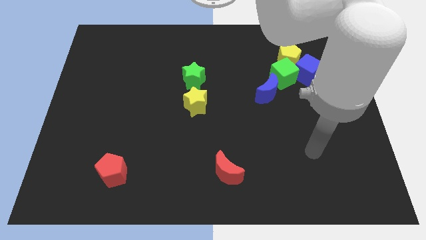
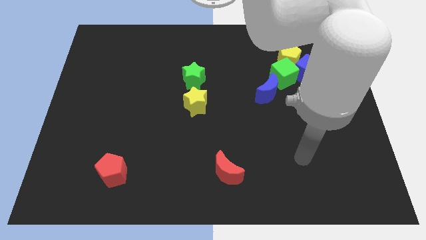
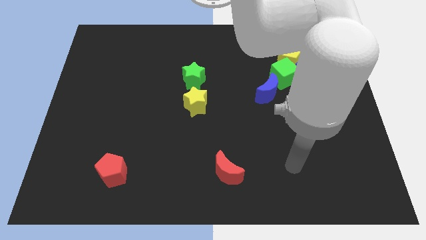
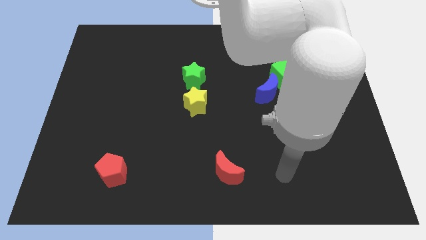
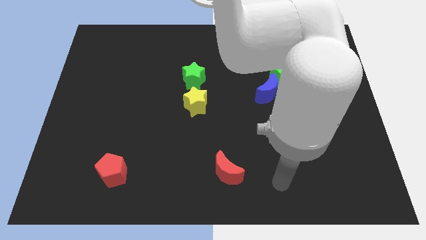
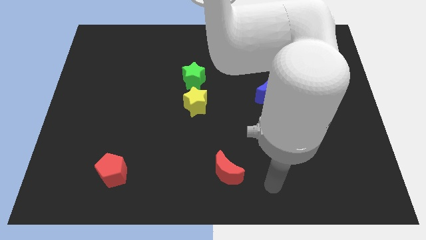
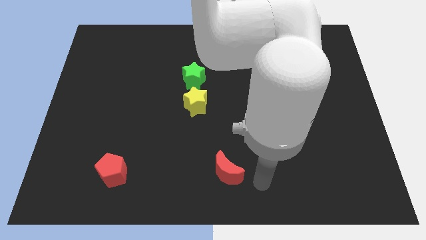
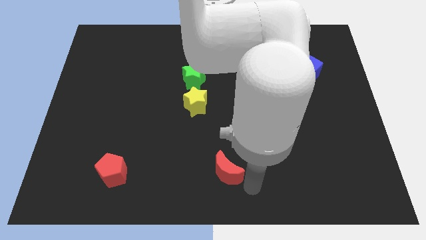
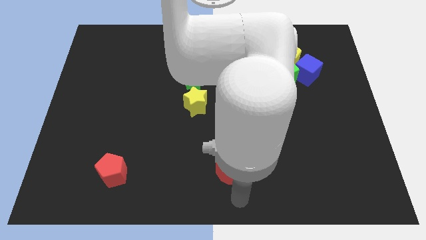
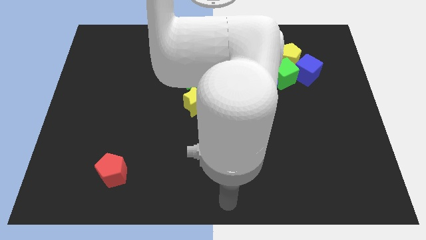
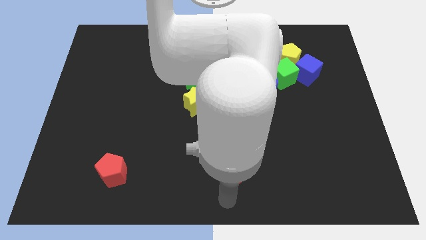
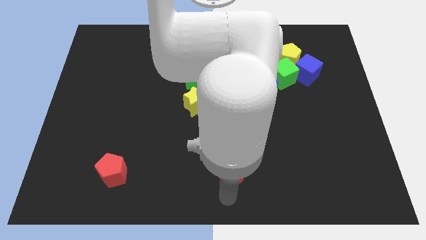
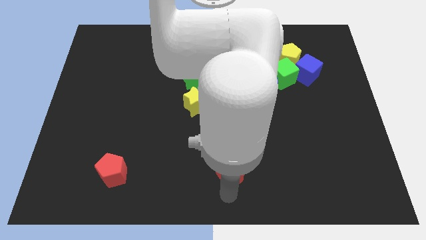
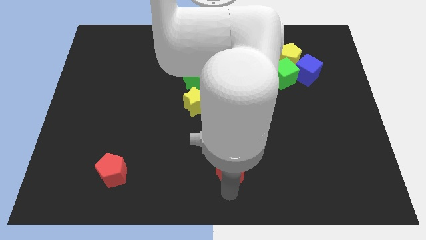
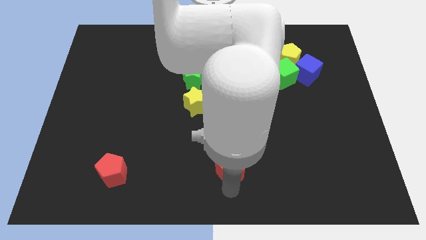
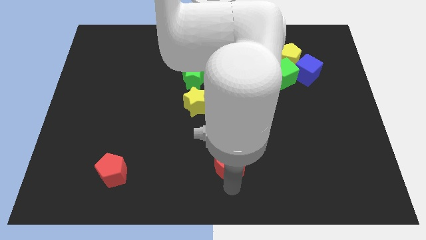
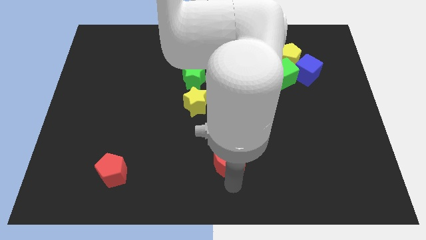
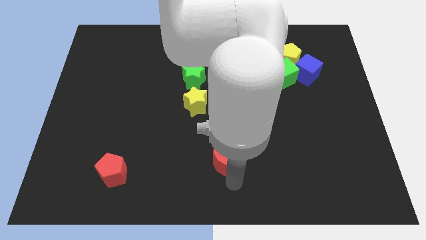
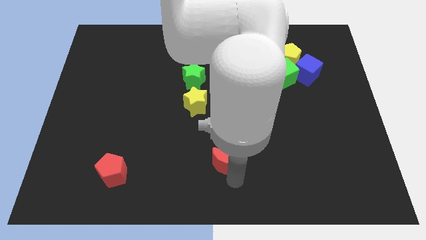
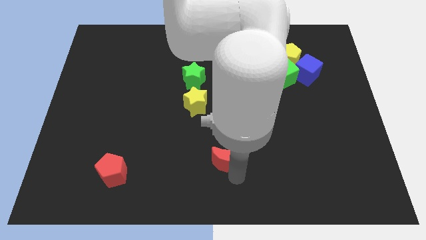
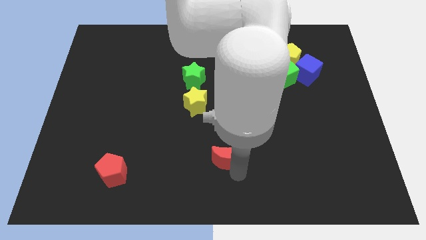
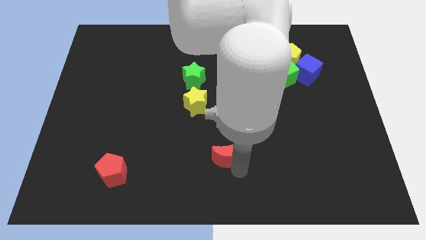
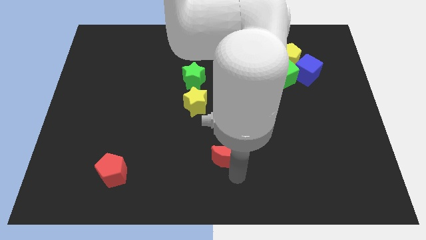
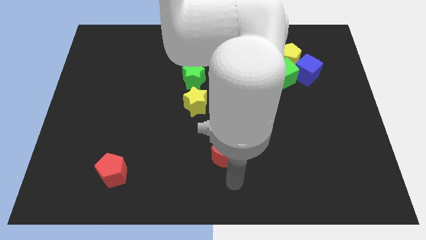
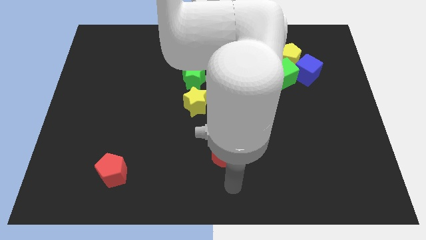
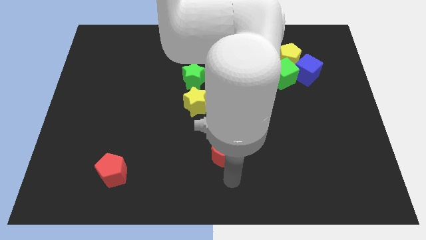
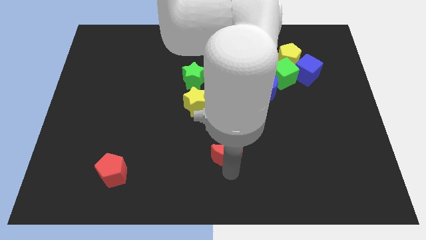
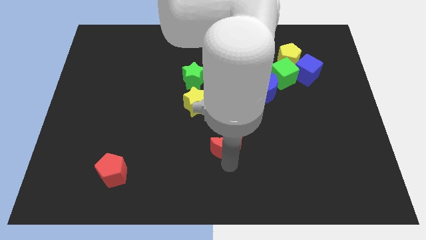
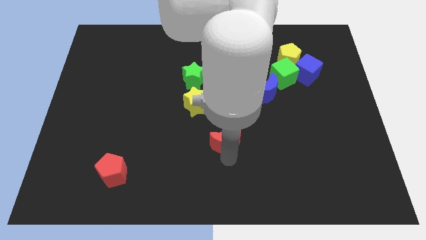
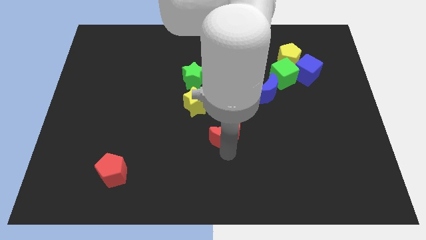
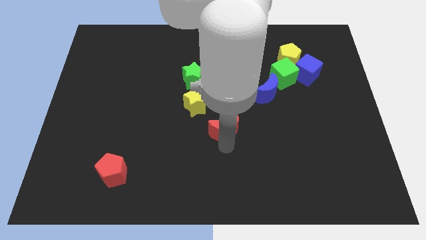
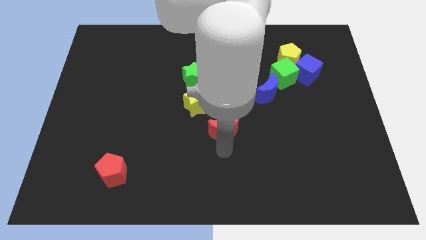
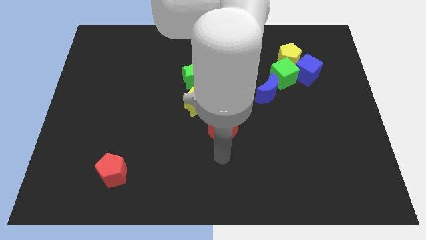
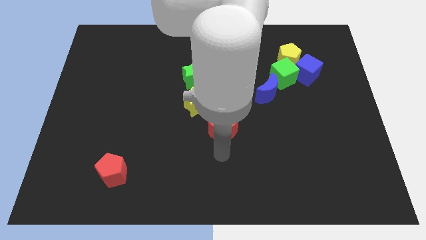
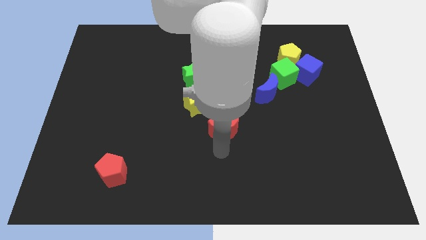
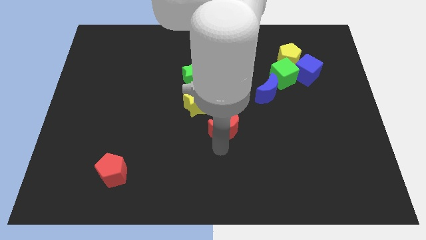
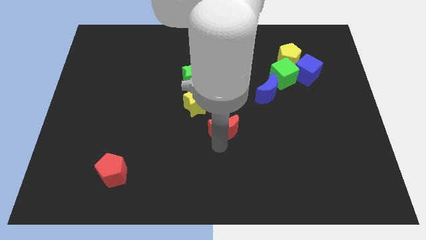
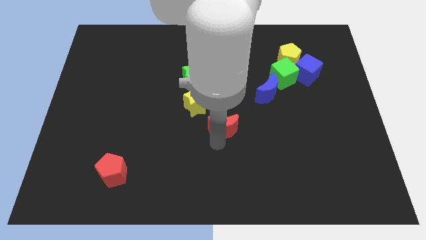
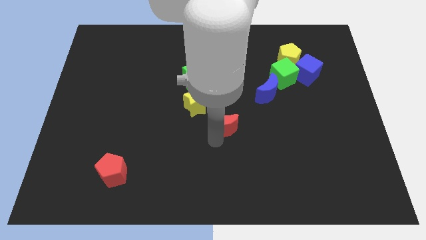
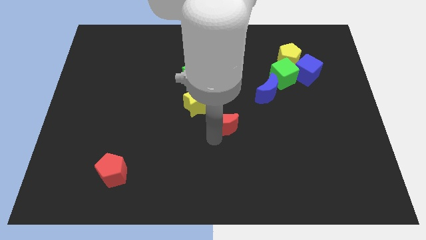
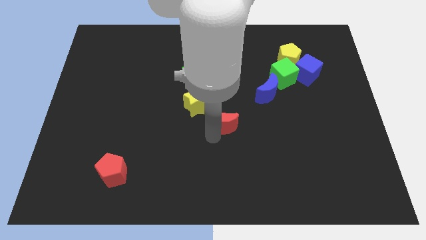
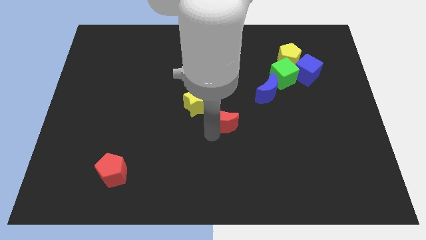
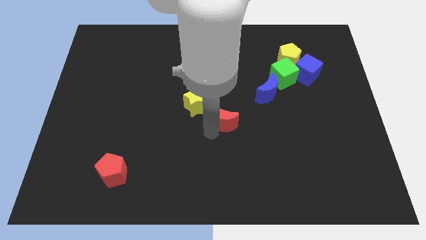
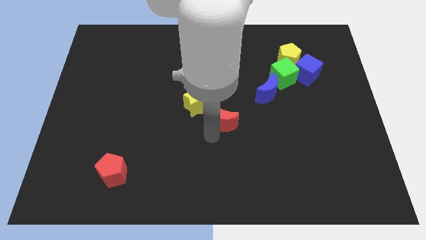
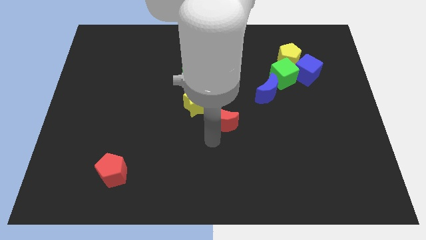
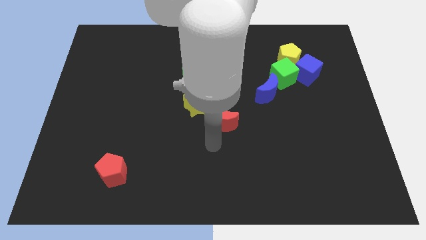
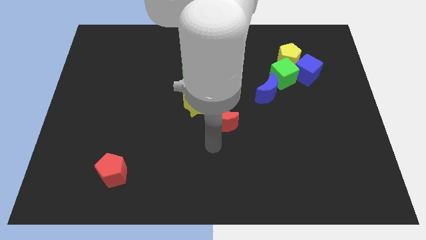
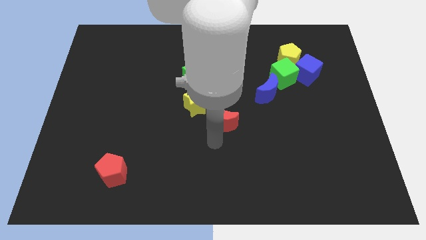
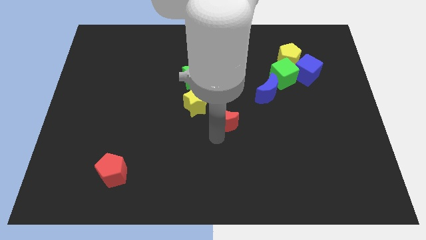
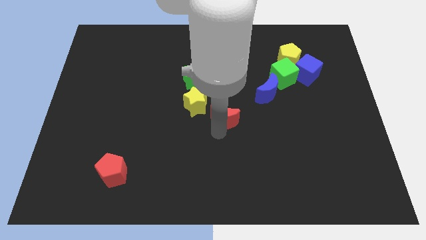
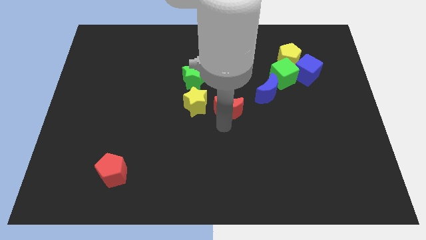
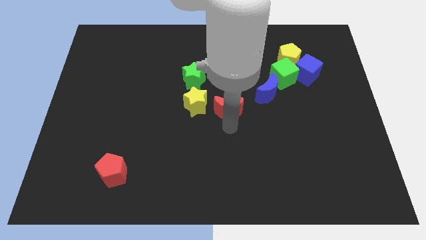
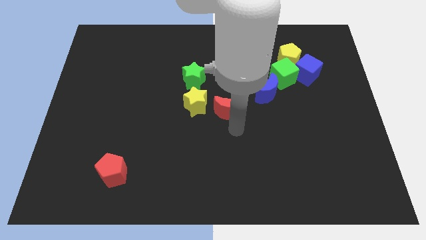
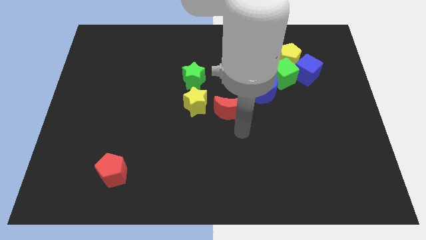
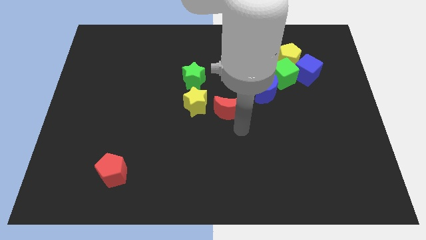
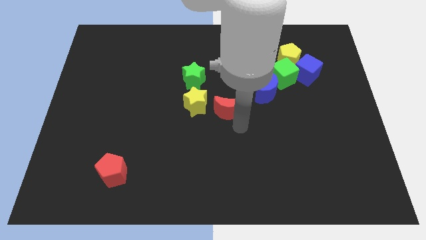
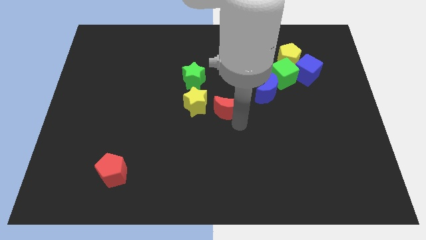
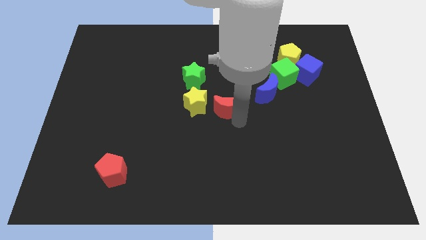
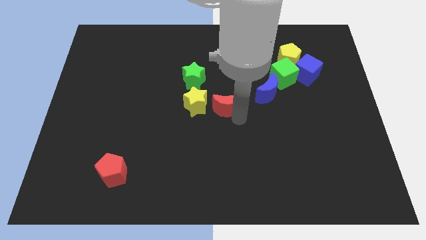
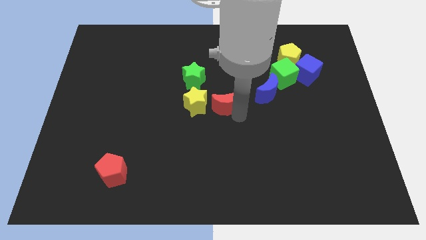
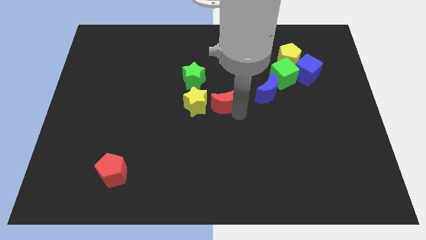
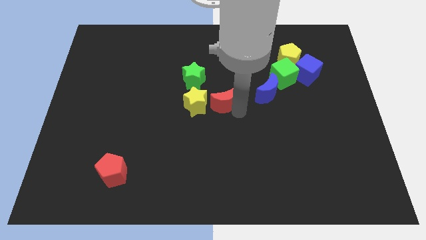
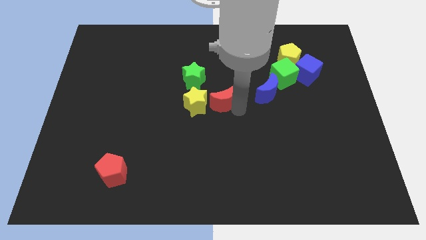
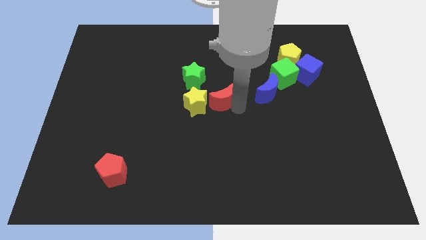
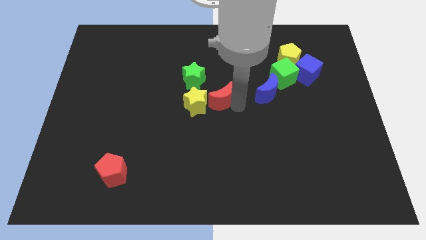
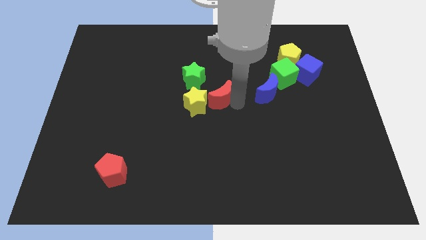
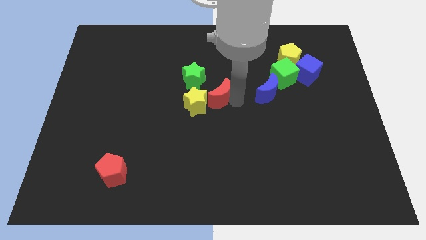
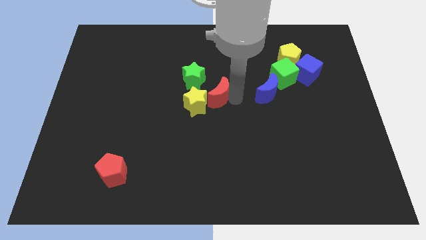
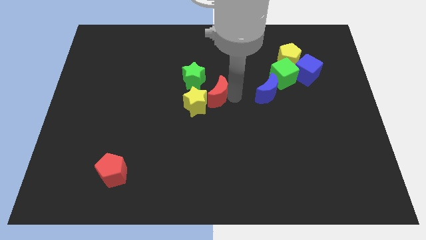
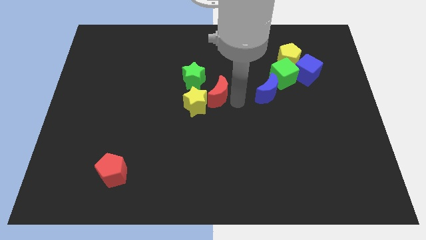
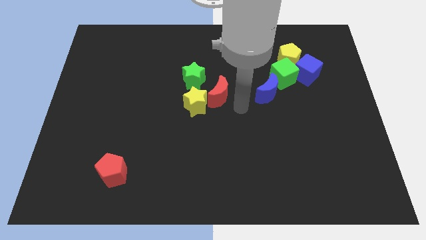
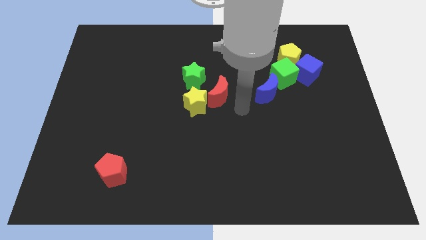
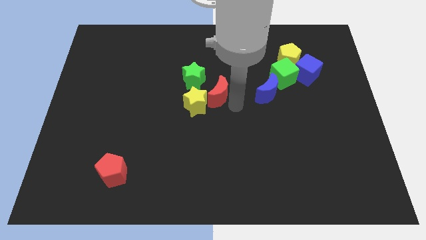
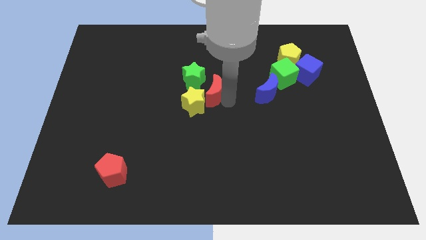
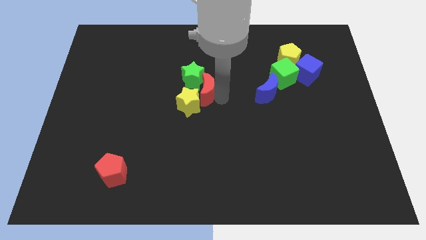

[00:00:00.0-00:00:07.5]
move the red moon close to the green star
